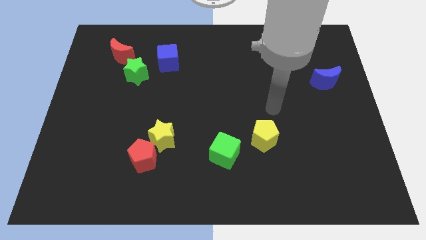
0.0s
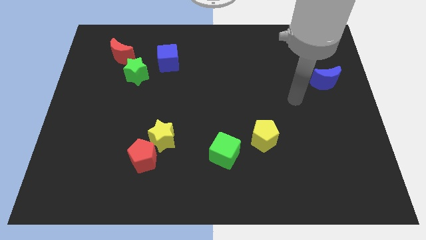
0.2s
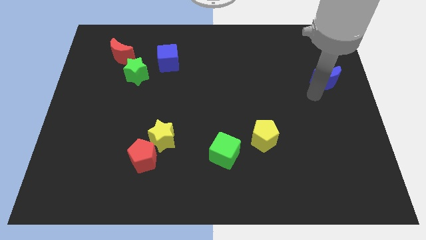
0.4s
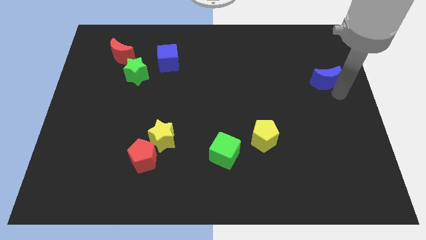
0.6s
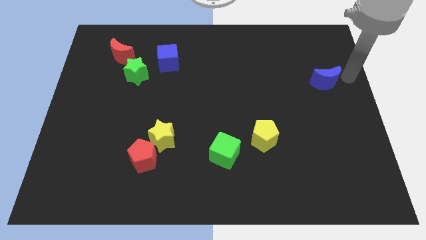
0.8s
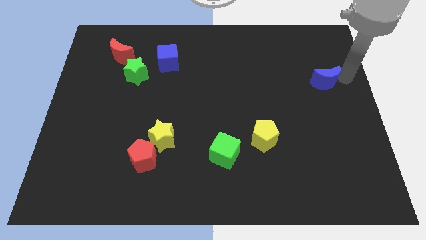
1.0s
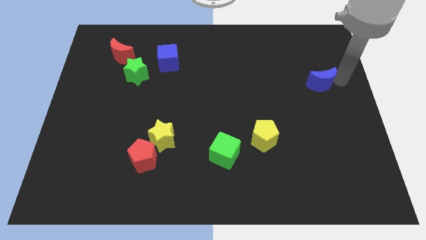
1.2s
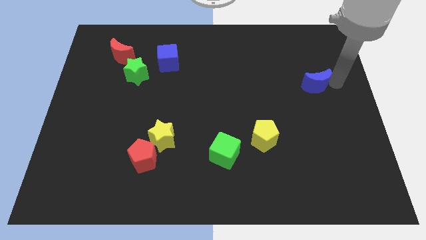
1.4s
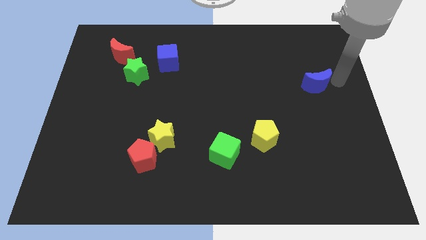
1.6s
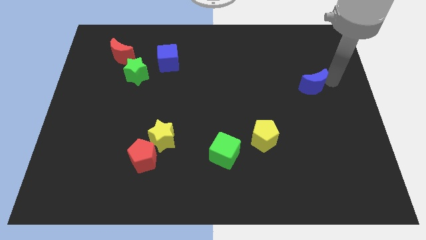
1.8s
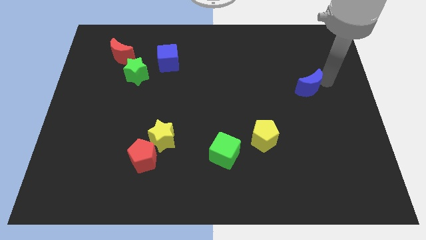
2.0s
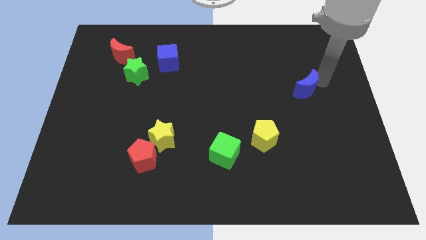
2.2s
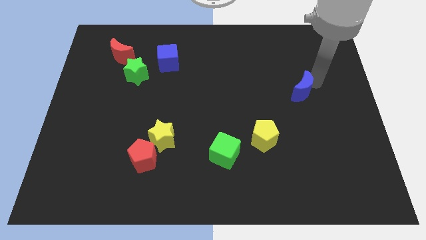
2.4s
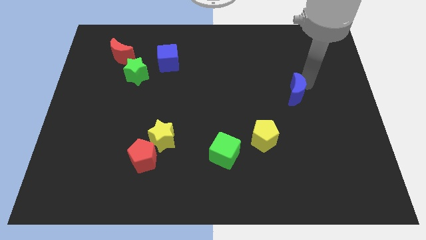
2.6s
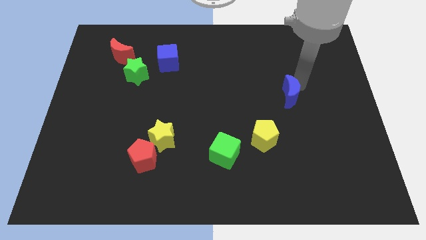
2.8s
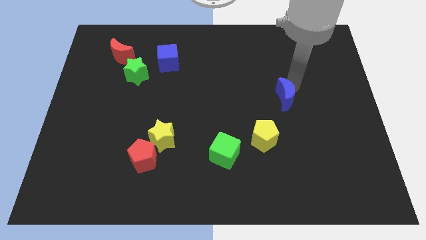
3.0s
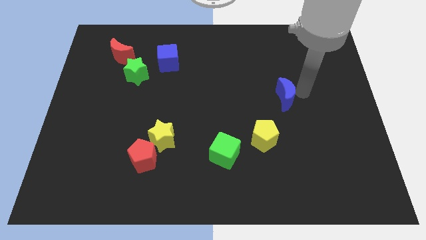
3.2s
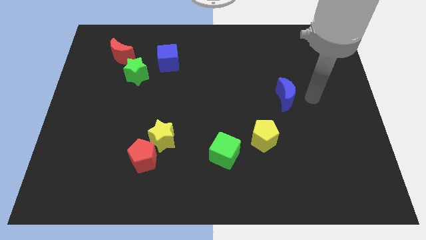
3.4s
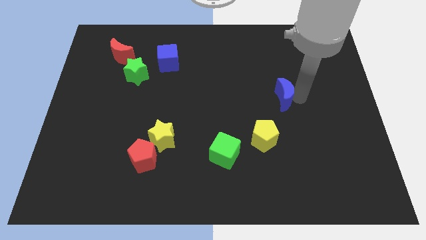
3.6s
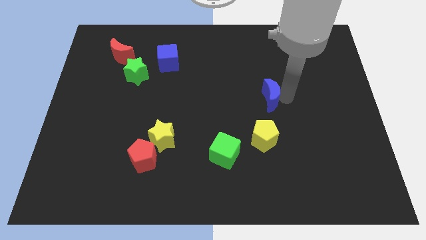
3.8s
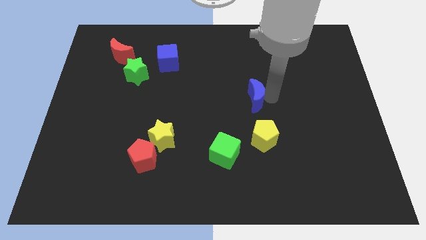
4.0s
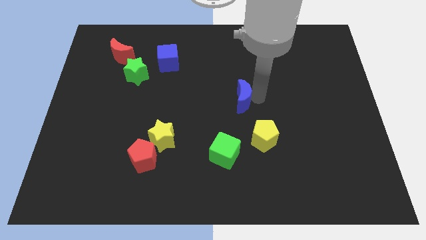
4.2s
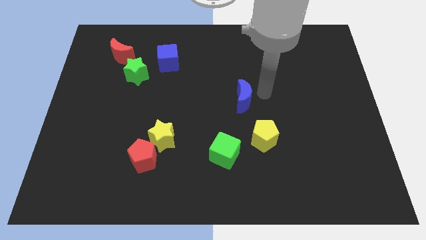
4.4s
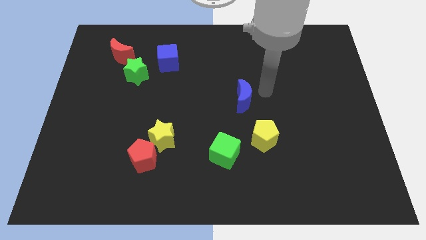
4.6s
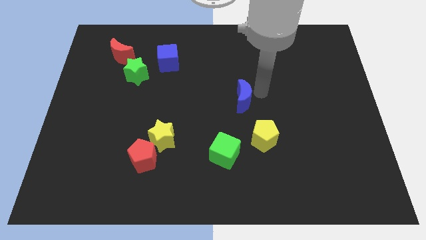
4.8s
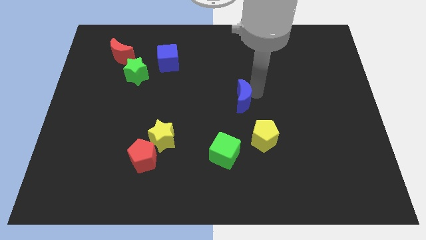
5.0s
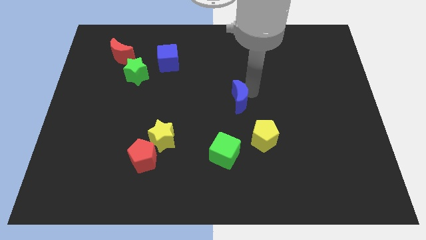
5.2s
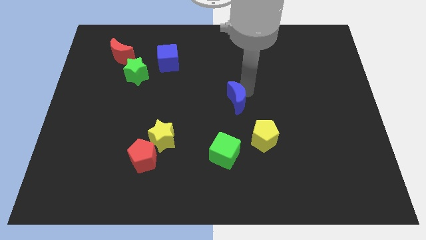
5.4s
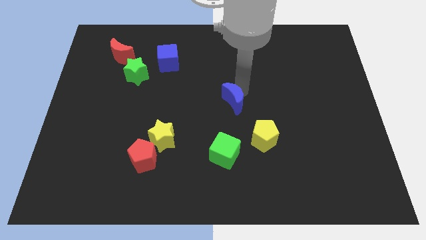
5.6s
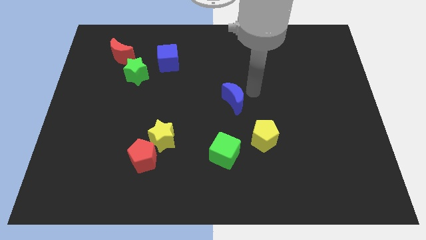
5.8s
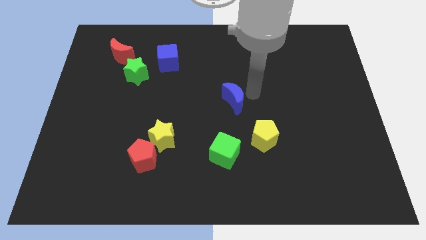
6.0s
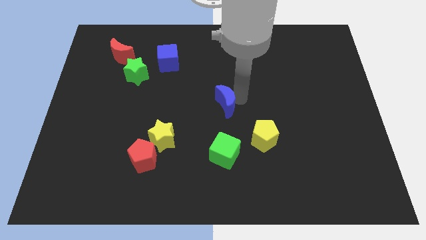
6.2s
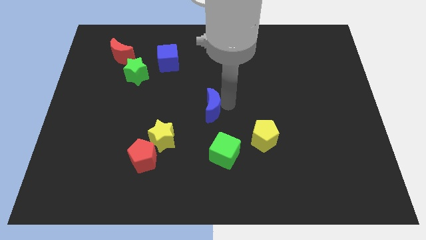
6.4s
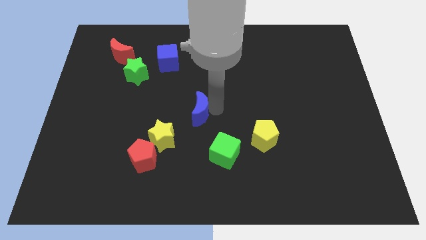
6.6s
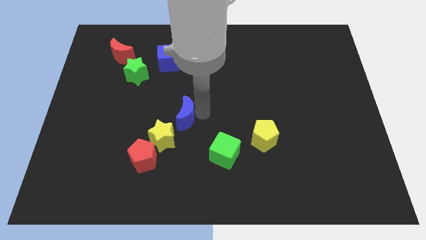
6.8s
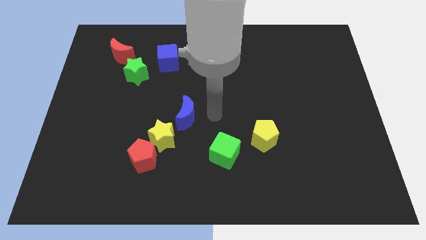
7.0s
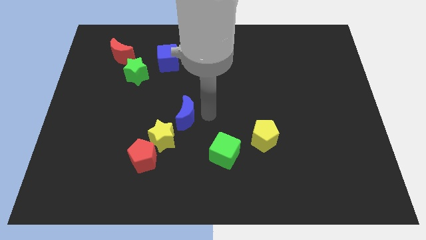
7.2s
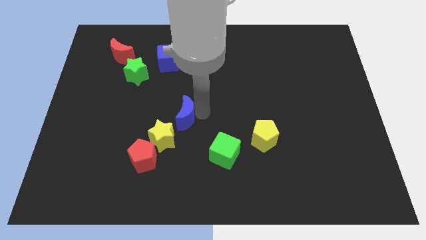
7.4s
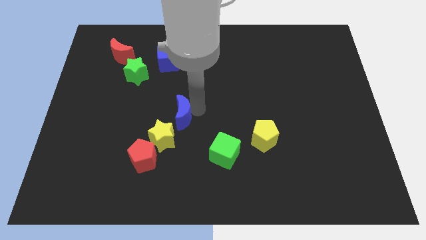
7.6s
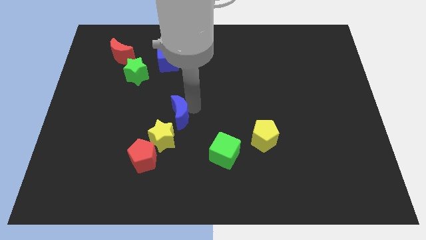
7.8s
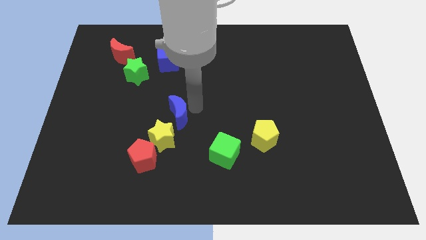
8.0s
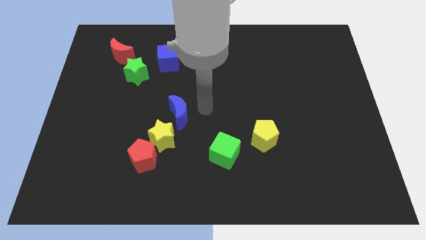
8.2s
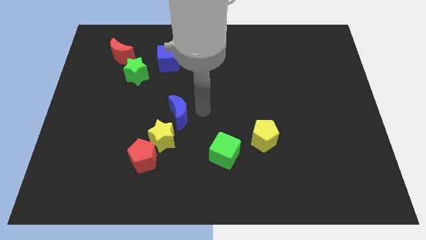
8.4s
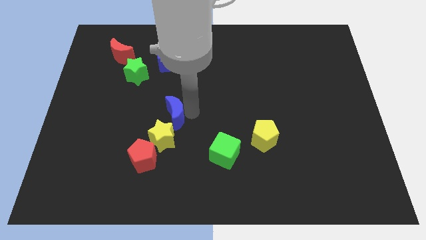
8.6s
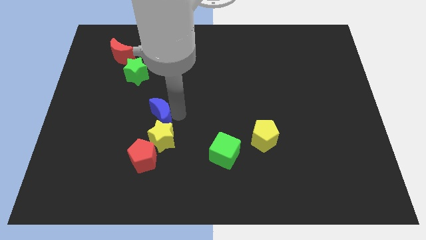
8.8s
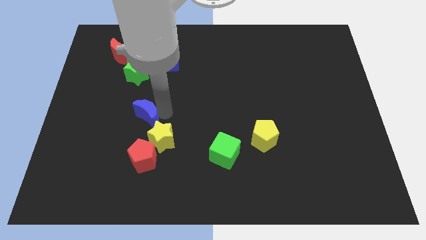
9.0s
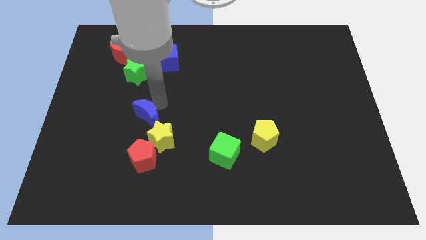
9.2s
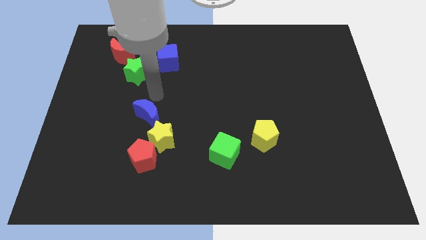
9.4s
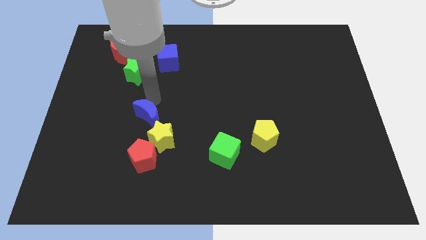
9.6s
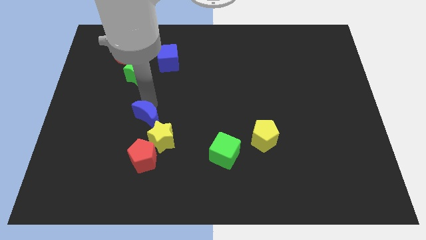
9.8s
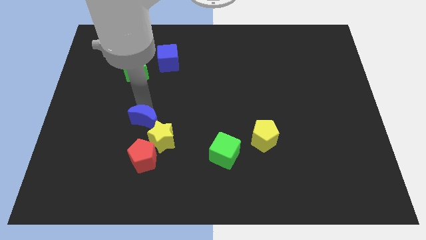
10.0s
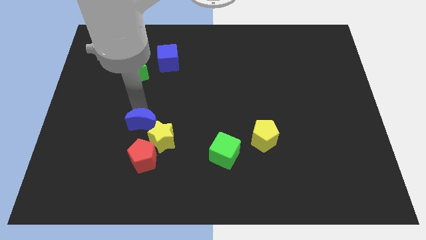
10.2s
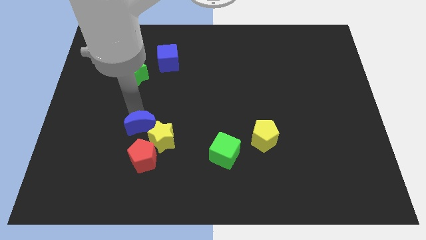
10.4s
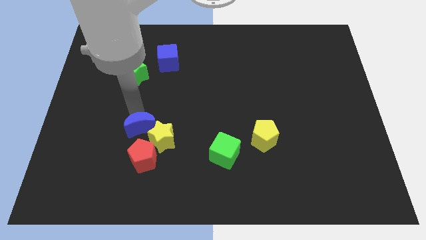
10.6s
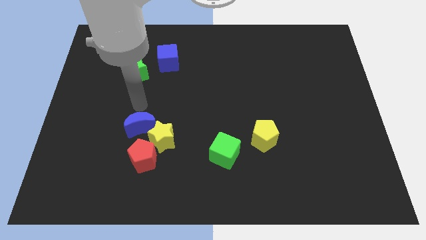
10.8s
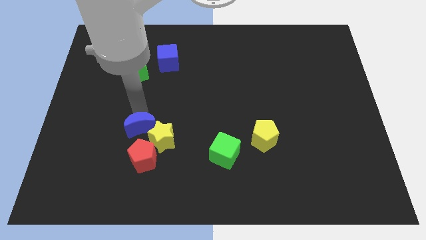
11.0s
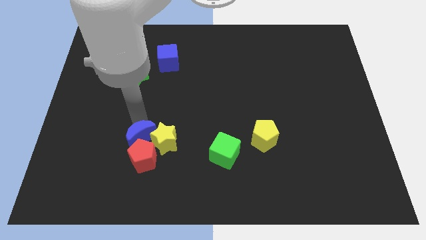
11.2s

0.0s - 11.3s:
move the blue moon close to the red pentagon

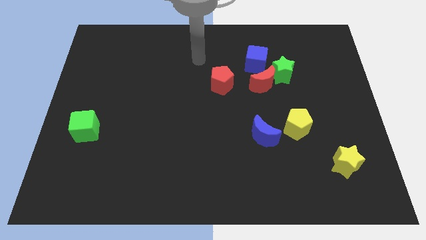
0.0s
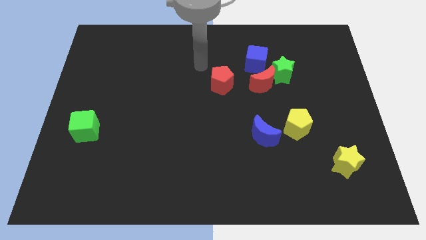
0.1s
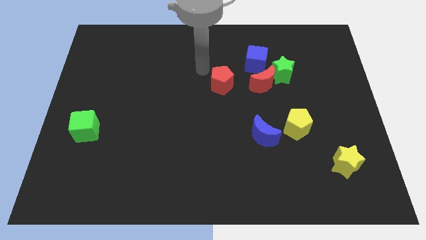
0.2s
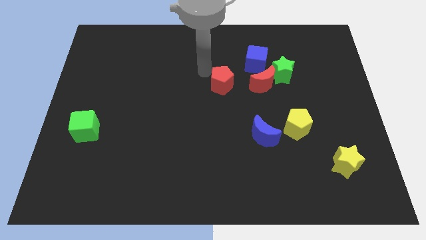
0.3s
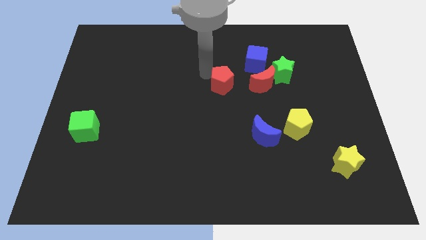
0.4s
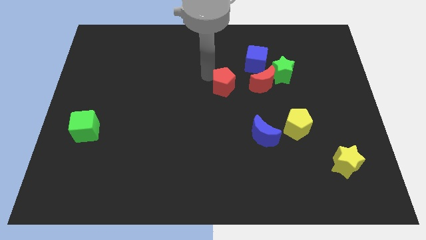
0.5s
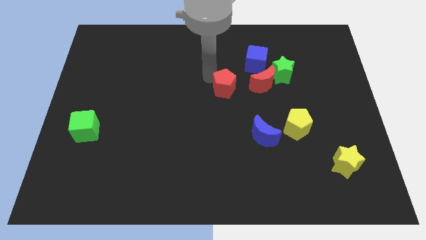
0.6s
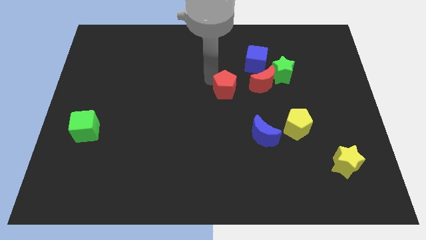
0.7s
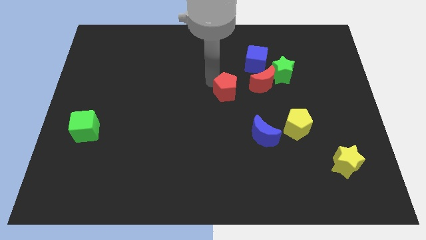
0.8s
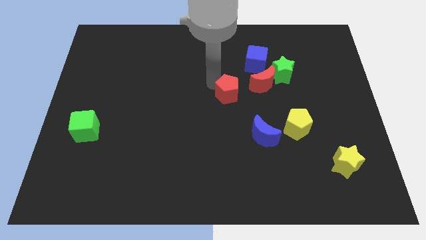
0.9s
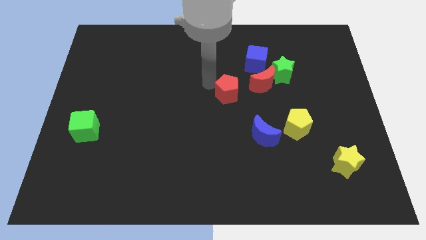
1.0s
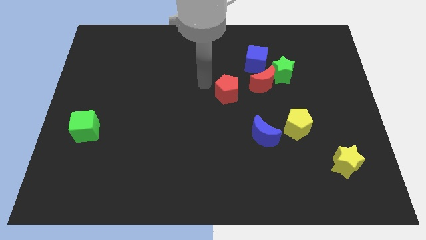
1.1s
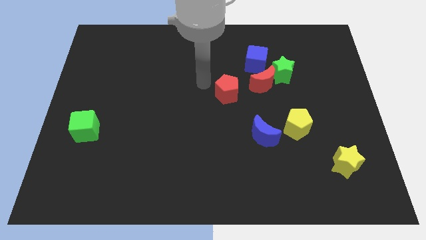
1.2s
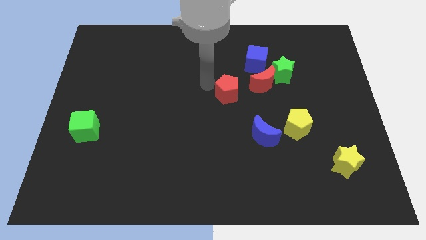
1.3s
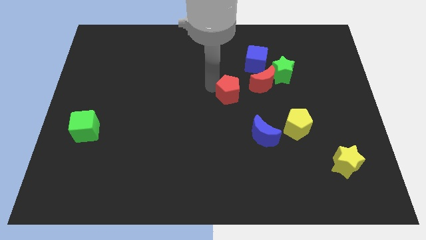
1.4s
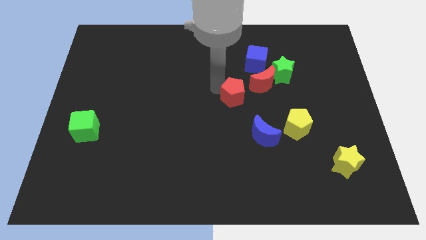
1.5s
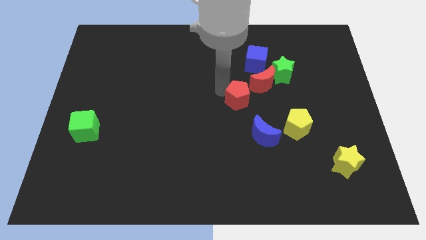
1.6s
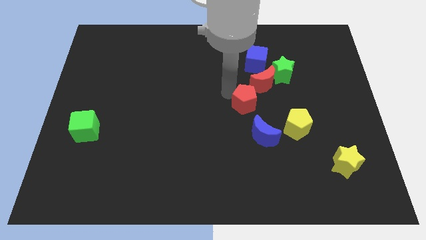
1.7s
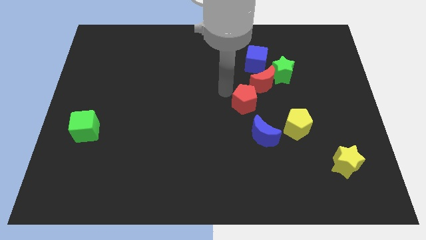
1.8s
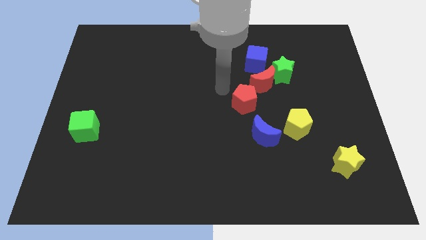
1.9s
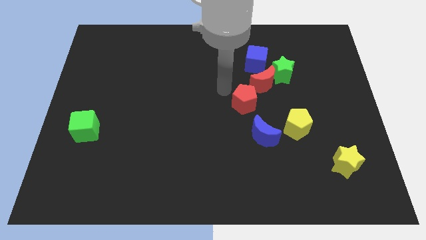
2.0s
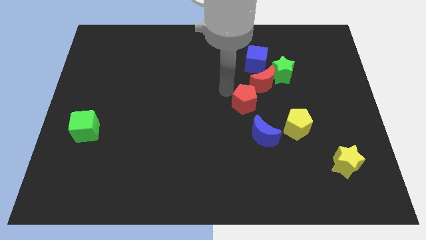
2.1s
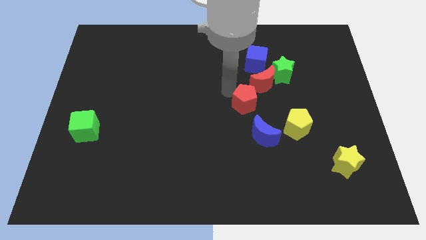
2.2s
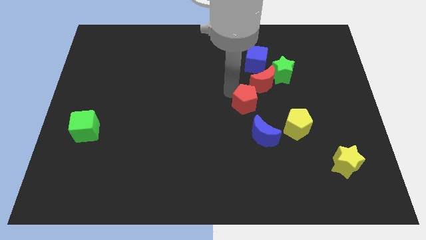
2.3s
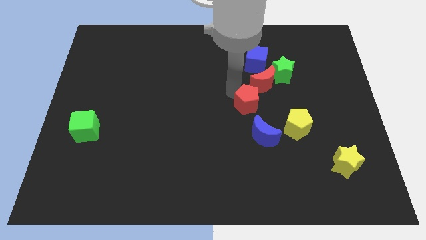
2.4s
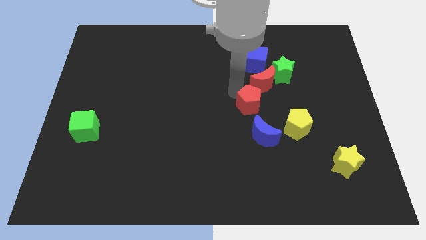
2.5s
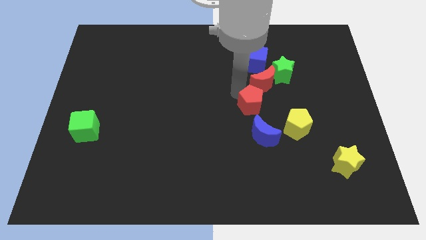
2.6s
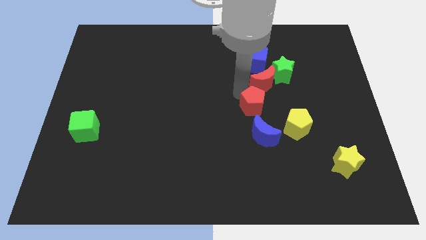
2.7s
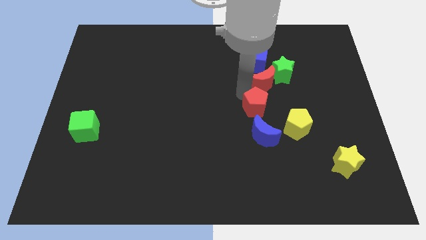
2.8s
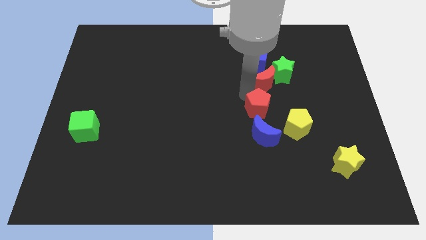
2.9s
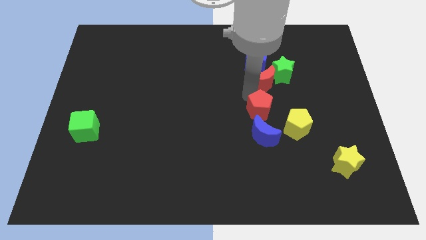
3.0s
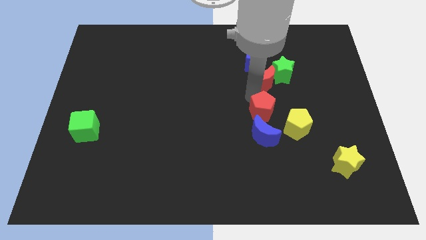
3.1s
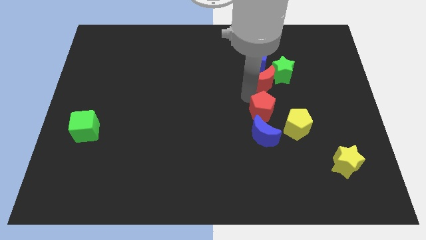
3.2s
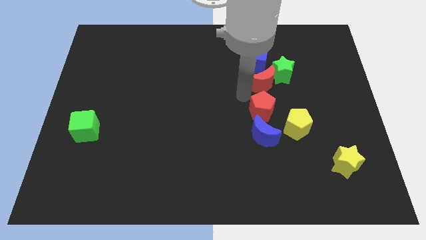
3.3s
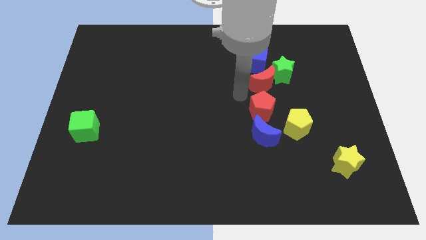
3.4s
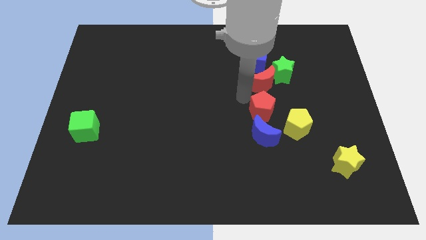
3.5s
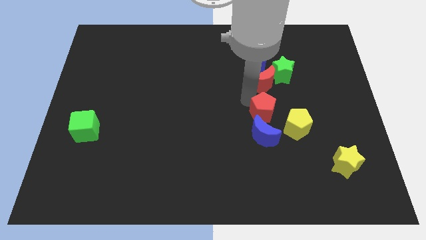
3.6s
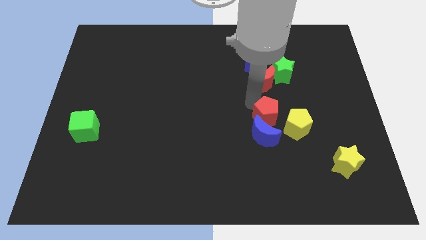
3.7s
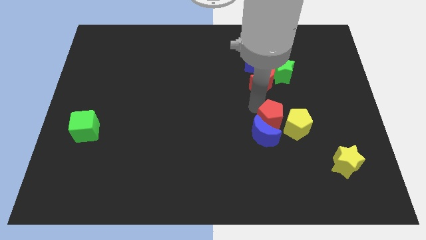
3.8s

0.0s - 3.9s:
put the red pentagon to the yellow pentagon
